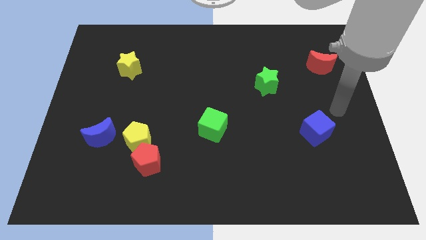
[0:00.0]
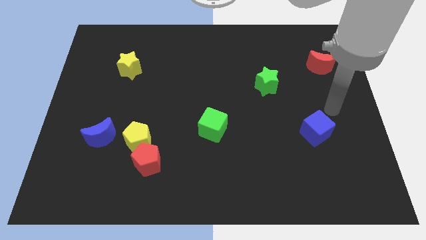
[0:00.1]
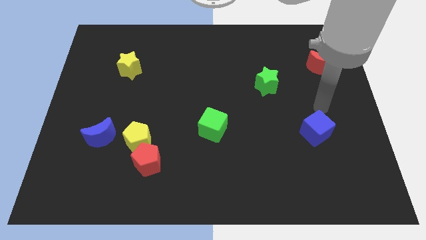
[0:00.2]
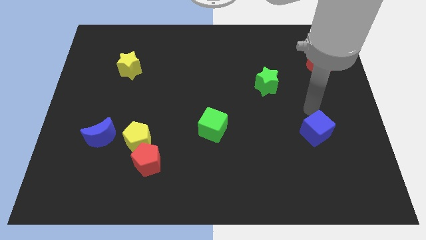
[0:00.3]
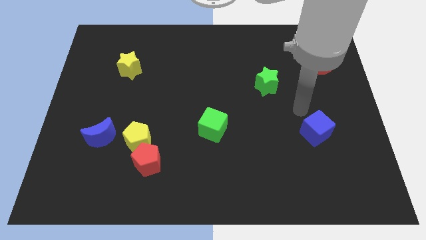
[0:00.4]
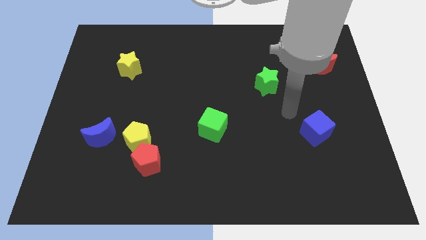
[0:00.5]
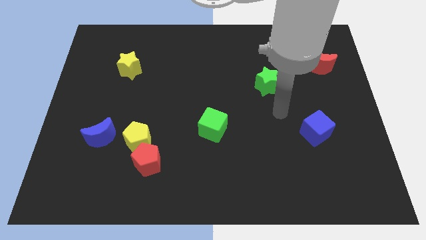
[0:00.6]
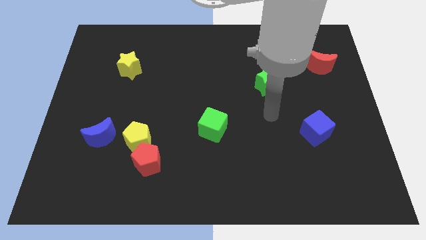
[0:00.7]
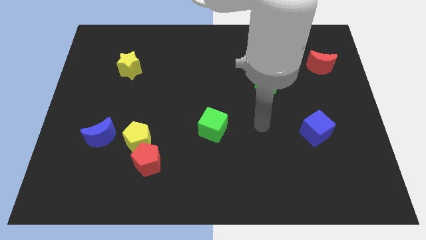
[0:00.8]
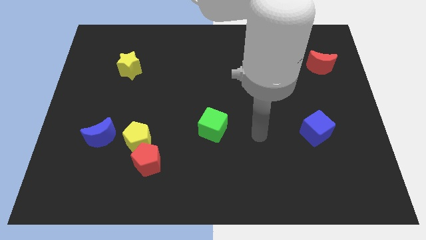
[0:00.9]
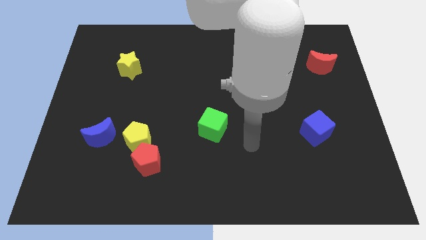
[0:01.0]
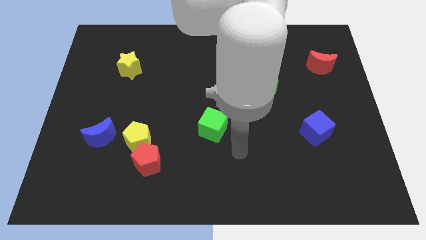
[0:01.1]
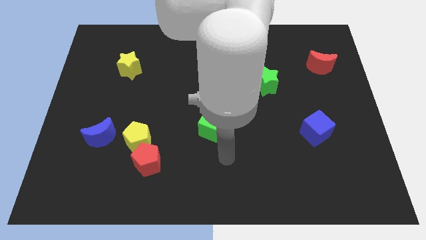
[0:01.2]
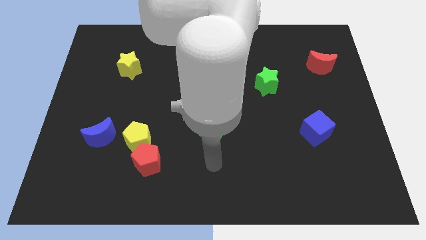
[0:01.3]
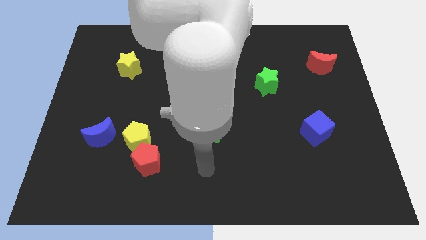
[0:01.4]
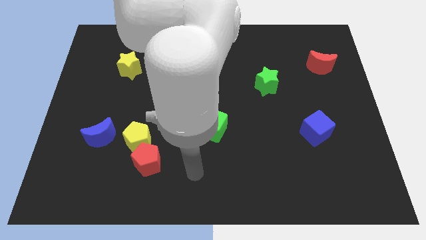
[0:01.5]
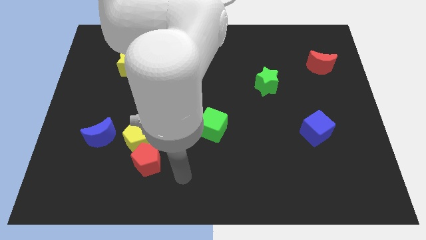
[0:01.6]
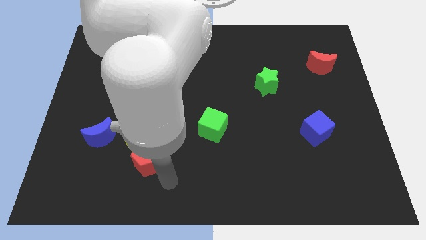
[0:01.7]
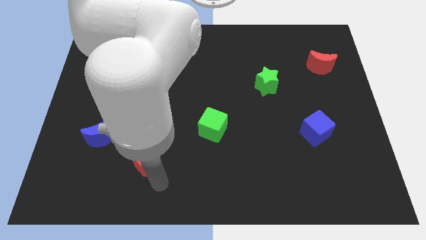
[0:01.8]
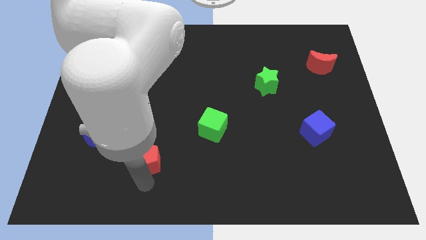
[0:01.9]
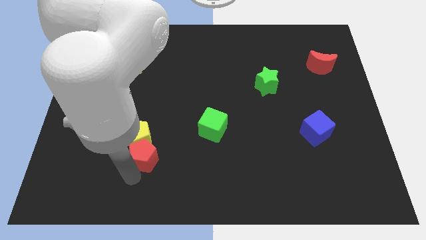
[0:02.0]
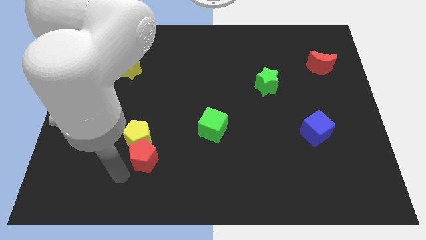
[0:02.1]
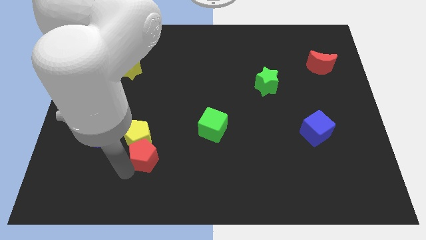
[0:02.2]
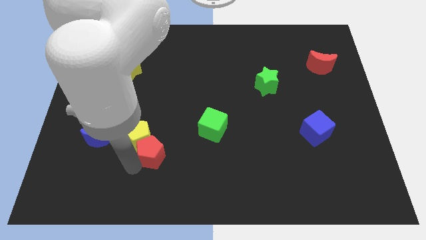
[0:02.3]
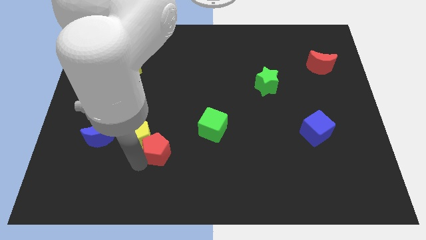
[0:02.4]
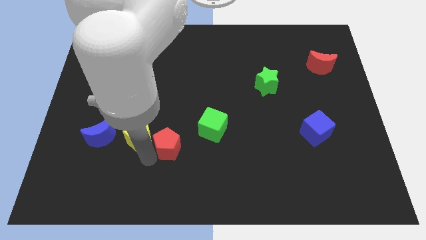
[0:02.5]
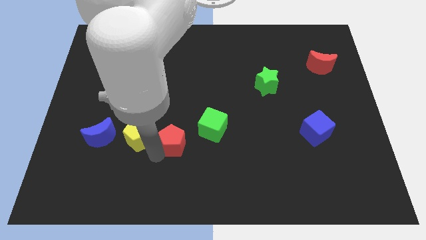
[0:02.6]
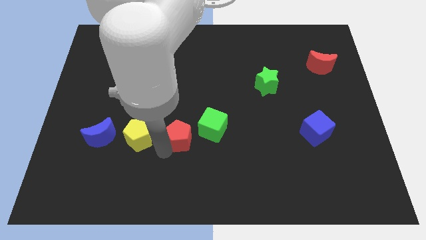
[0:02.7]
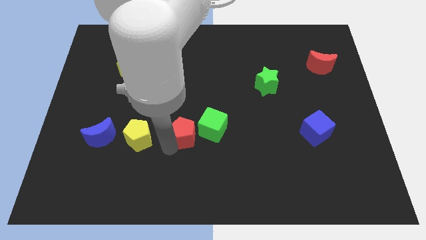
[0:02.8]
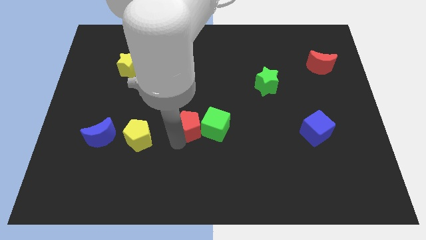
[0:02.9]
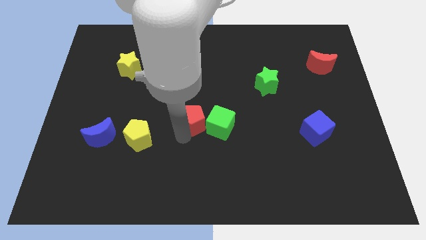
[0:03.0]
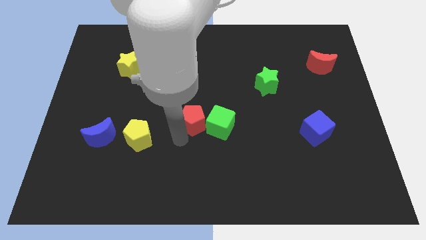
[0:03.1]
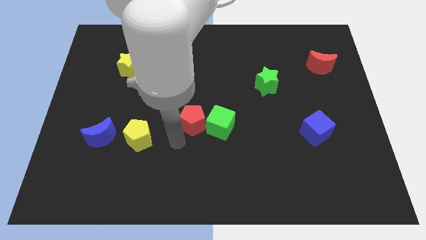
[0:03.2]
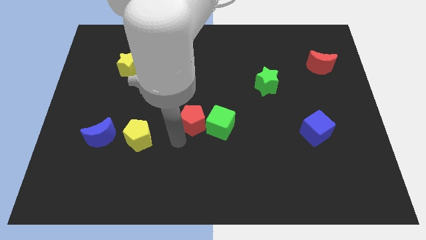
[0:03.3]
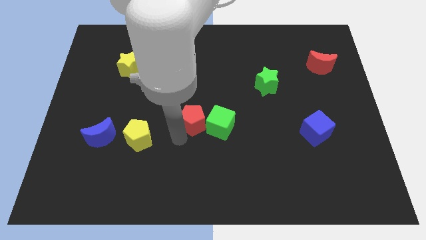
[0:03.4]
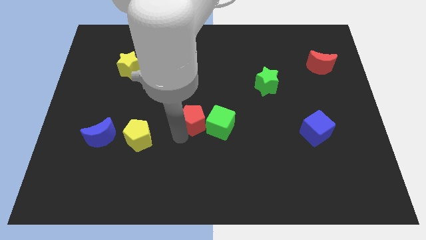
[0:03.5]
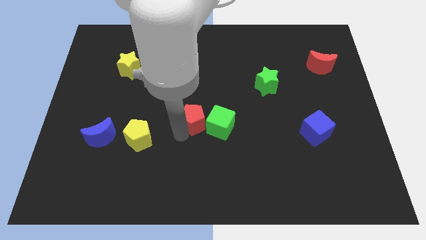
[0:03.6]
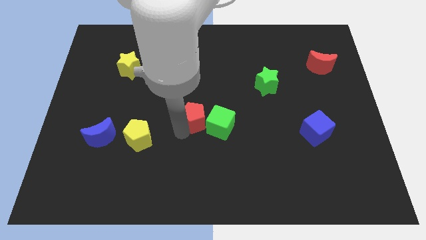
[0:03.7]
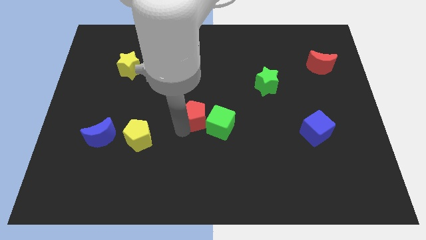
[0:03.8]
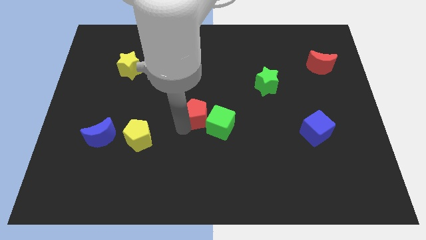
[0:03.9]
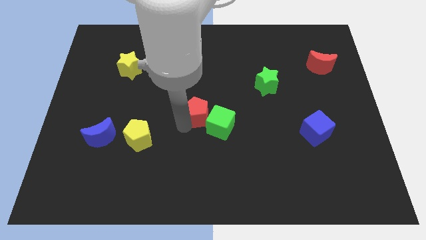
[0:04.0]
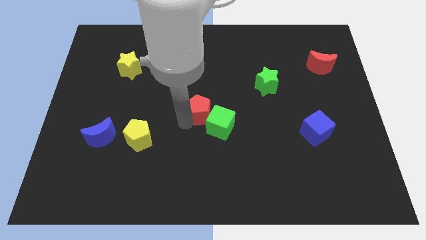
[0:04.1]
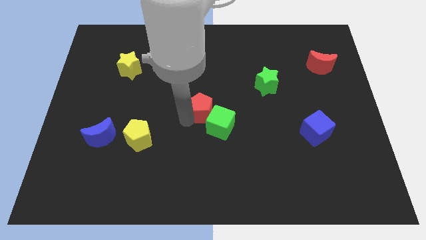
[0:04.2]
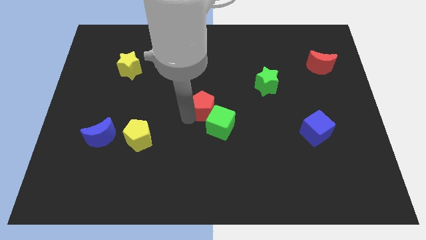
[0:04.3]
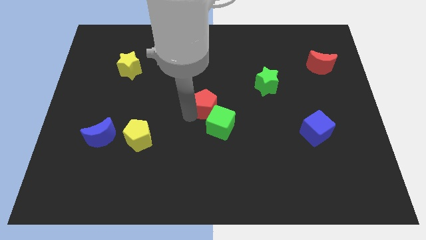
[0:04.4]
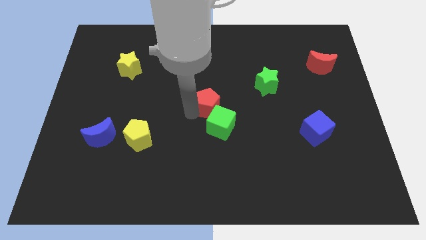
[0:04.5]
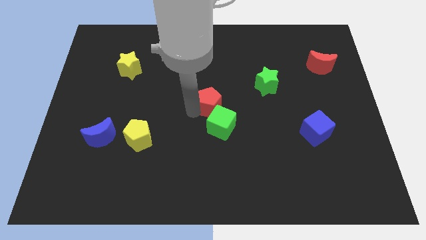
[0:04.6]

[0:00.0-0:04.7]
move the red pentagon upwards and then right

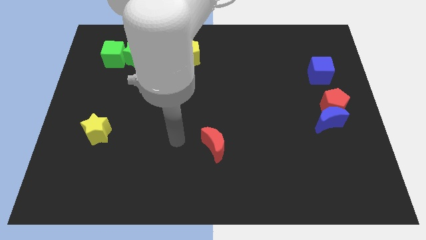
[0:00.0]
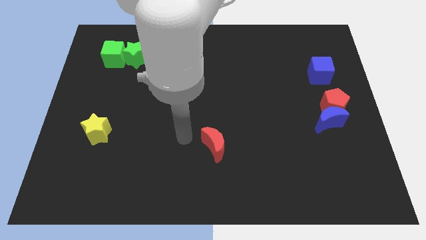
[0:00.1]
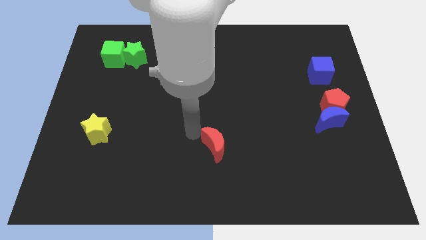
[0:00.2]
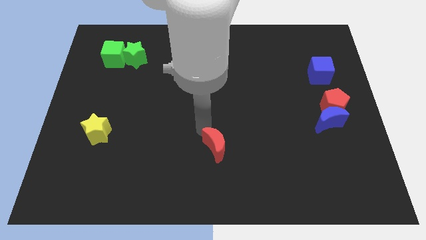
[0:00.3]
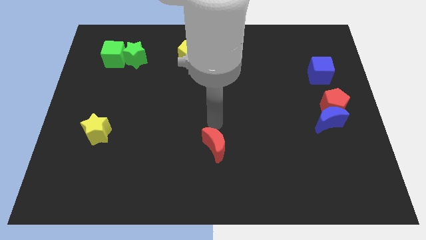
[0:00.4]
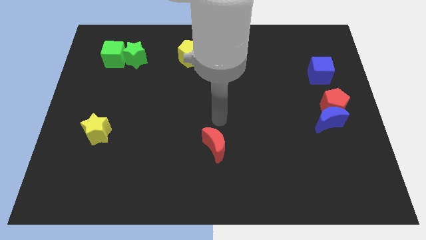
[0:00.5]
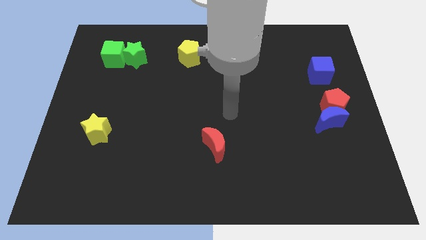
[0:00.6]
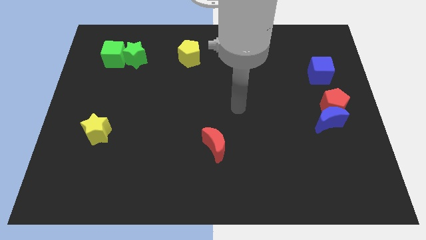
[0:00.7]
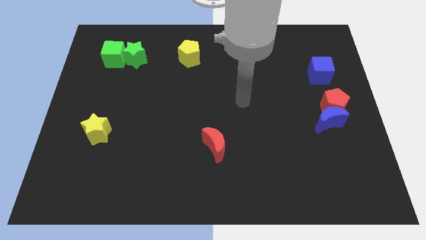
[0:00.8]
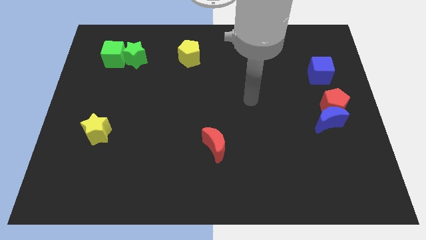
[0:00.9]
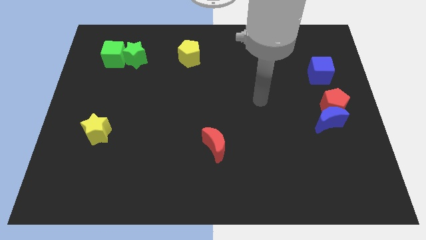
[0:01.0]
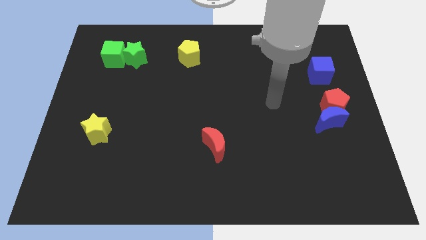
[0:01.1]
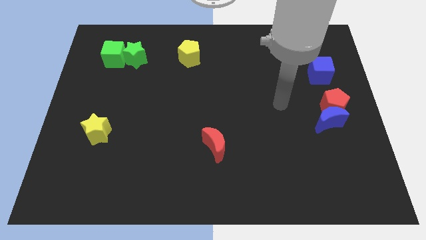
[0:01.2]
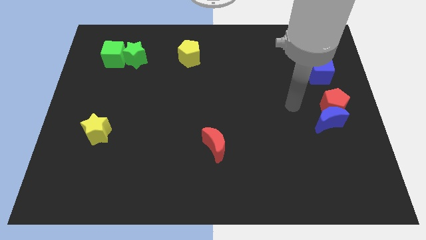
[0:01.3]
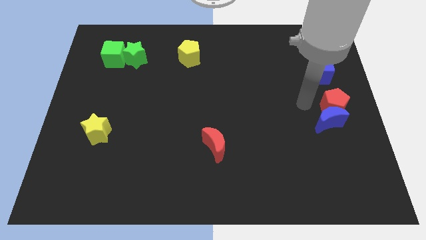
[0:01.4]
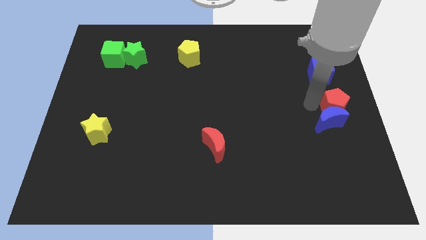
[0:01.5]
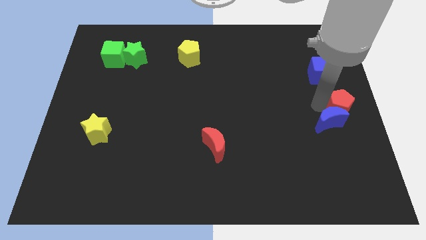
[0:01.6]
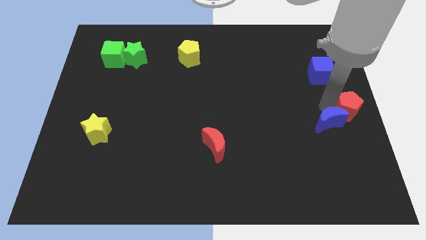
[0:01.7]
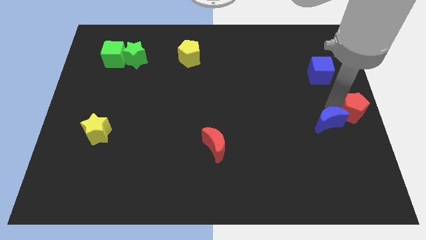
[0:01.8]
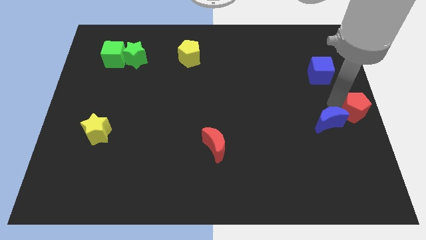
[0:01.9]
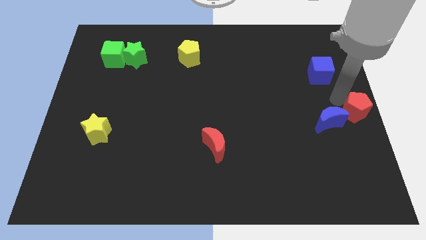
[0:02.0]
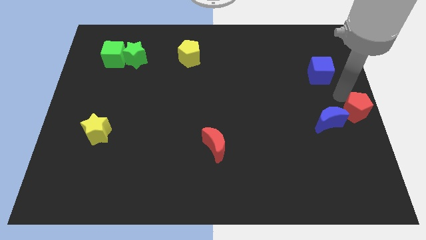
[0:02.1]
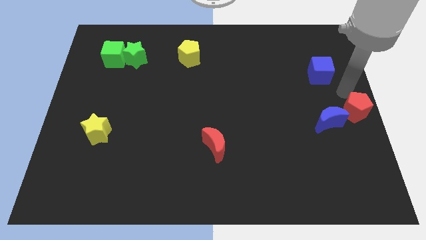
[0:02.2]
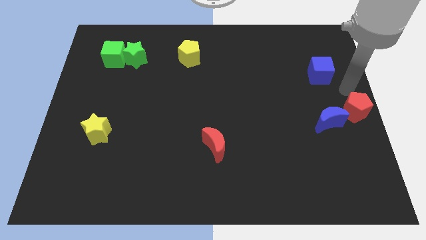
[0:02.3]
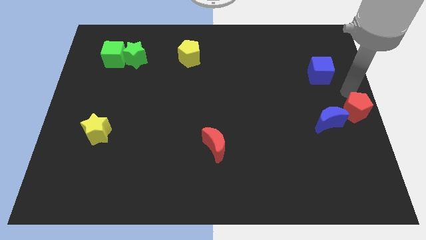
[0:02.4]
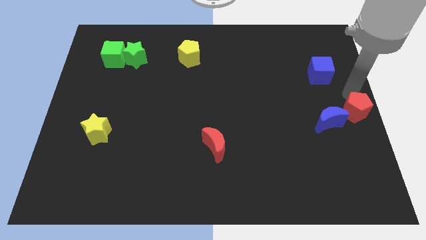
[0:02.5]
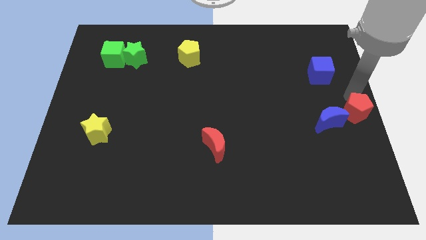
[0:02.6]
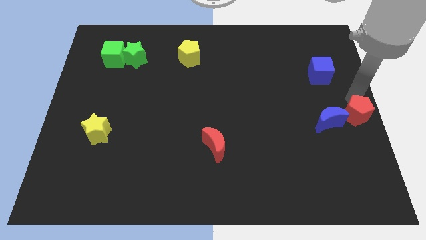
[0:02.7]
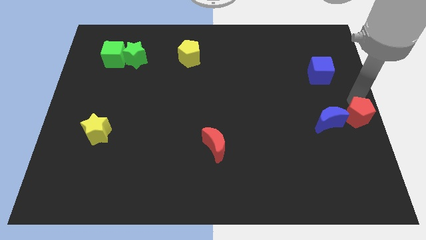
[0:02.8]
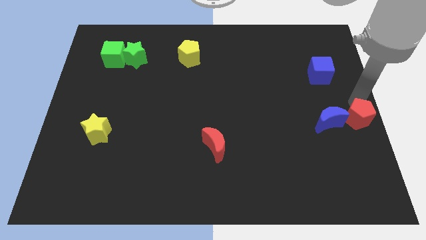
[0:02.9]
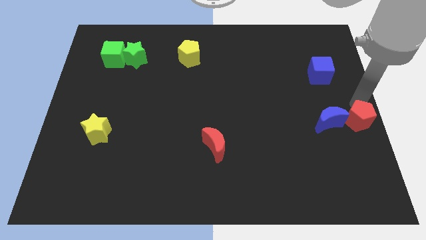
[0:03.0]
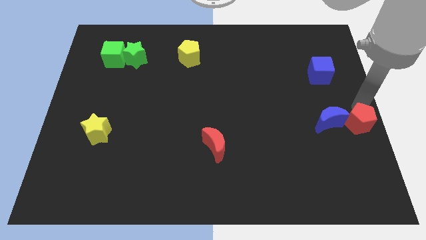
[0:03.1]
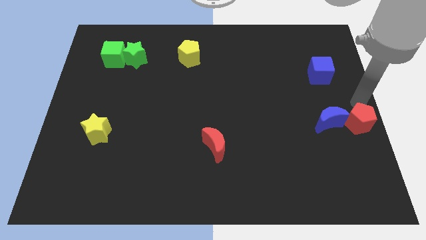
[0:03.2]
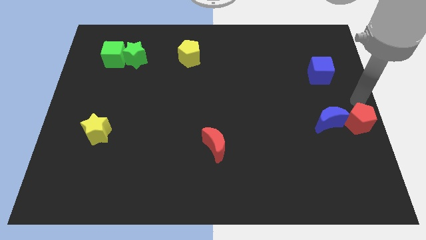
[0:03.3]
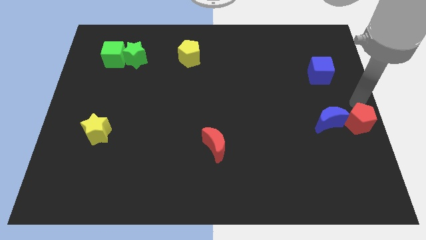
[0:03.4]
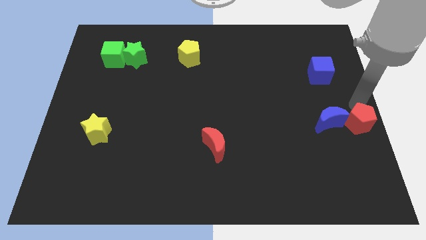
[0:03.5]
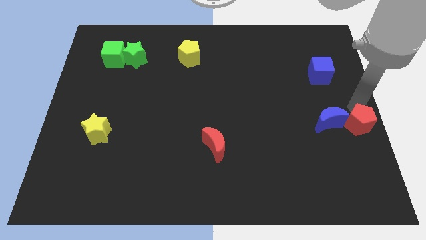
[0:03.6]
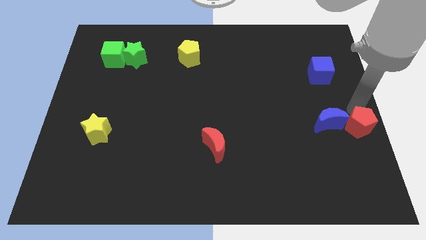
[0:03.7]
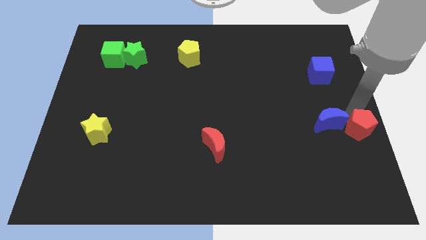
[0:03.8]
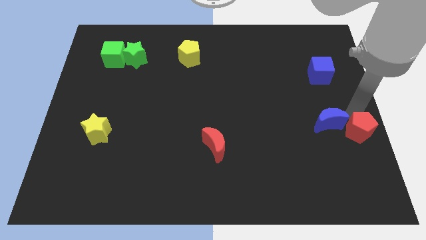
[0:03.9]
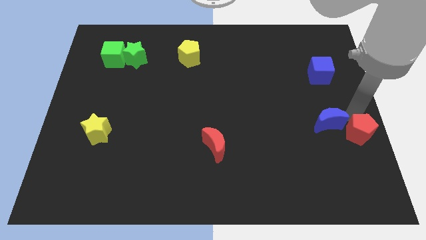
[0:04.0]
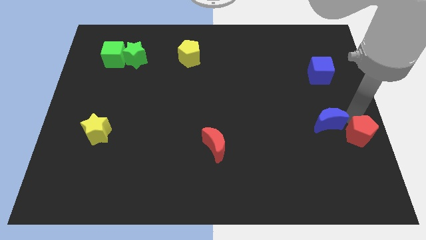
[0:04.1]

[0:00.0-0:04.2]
slightly move the red pentagon down
